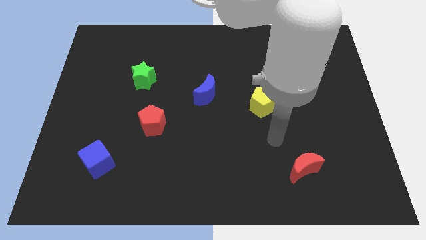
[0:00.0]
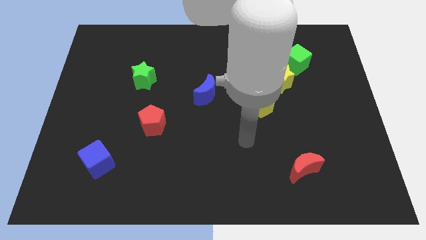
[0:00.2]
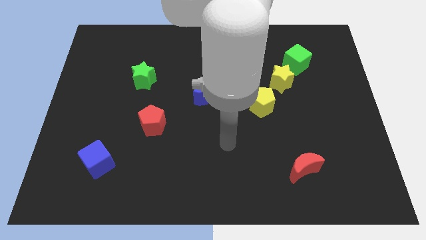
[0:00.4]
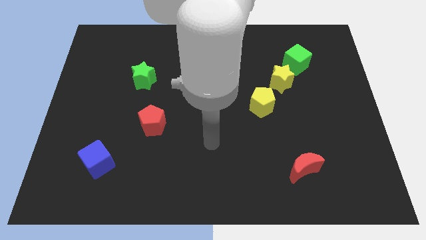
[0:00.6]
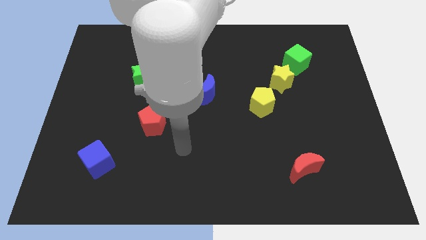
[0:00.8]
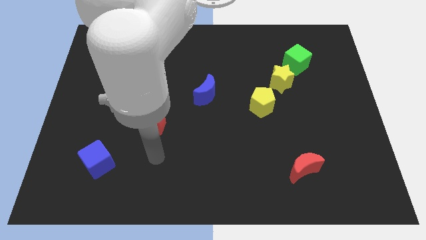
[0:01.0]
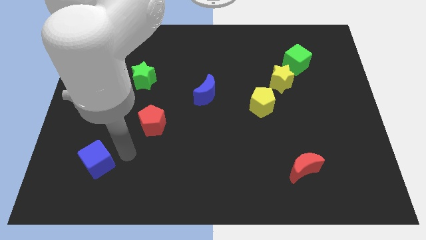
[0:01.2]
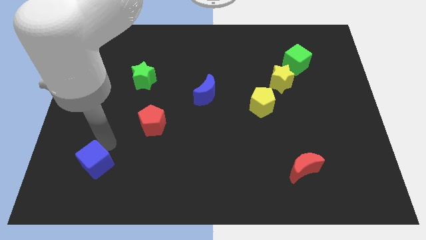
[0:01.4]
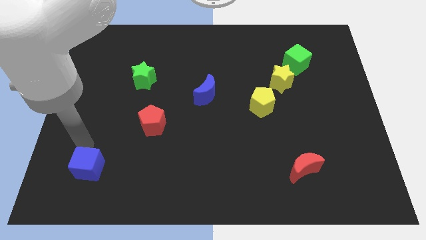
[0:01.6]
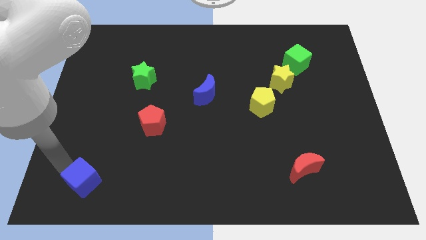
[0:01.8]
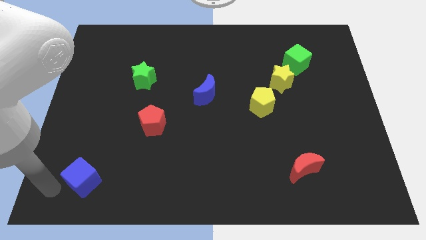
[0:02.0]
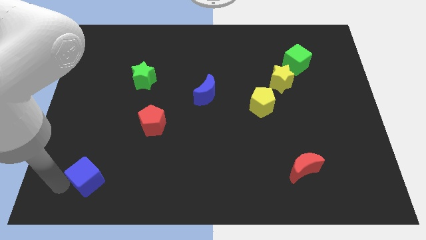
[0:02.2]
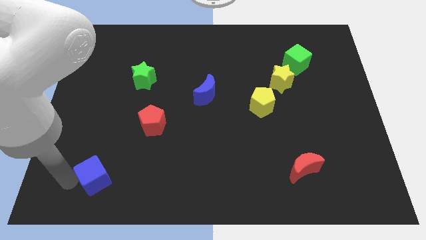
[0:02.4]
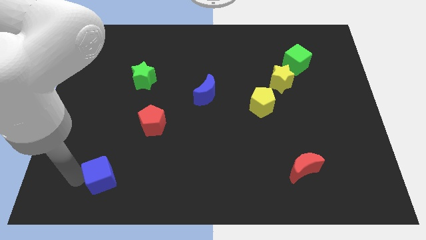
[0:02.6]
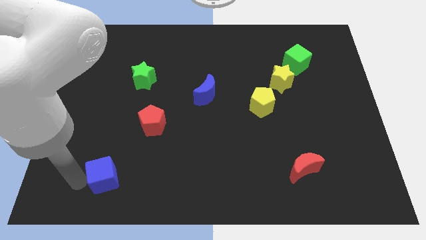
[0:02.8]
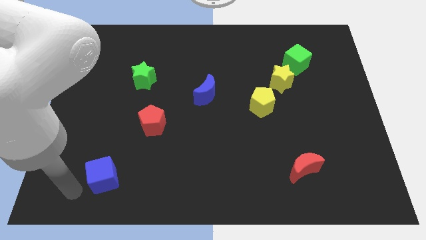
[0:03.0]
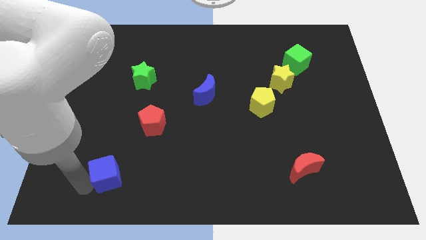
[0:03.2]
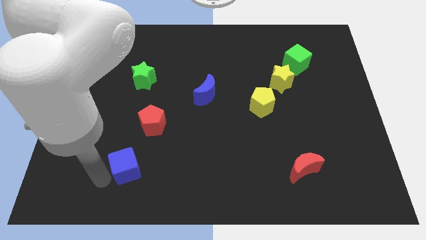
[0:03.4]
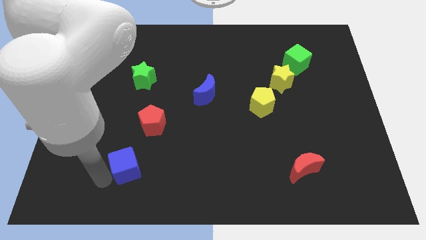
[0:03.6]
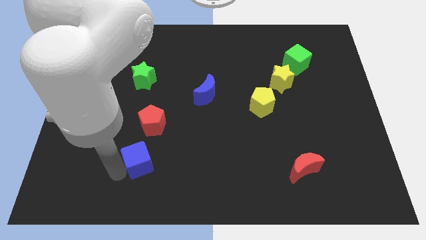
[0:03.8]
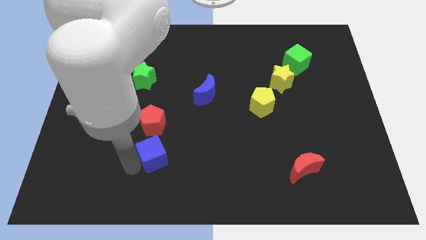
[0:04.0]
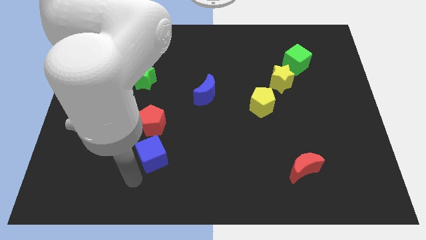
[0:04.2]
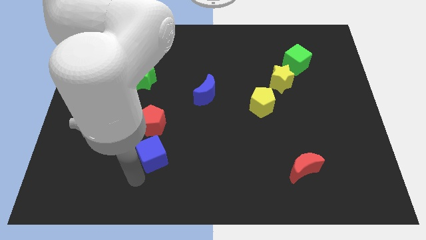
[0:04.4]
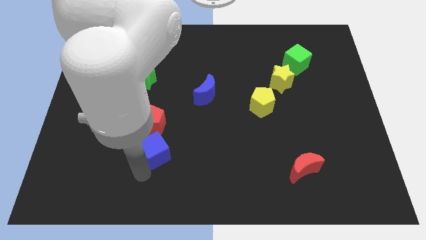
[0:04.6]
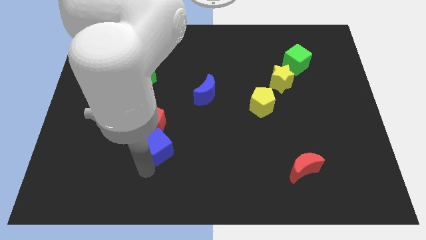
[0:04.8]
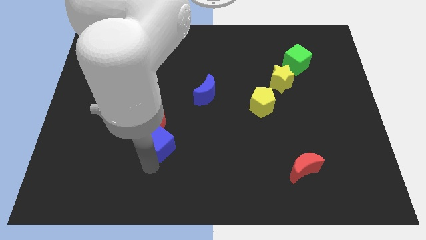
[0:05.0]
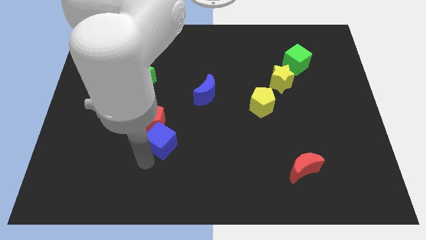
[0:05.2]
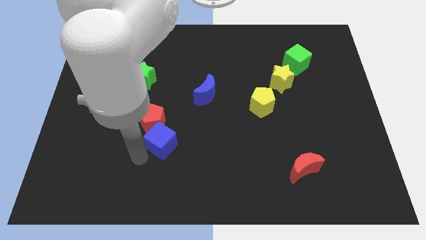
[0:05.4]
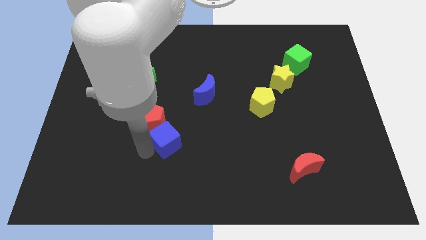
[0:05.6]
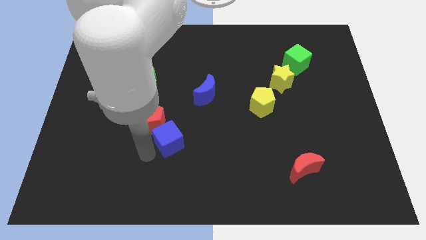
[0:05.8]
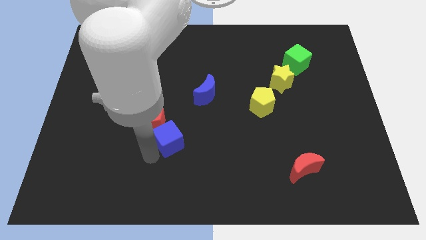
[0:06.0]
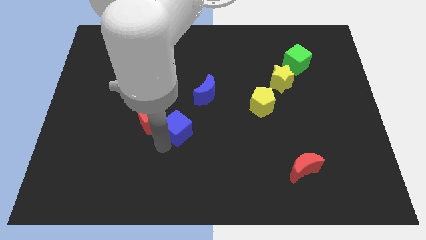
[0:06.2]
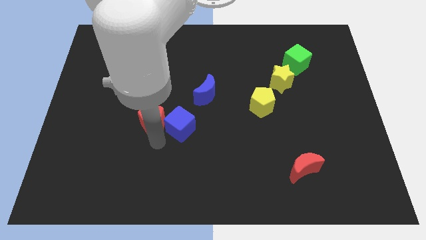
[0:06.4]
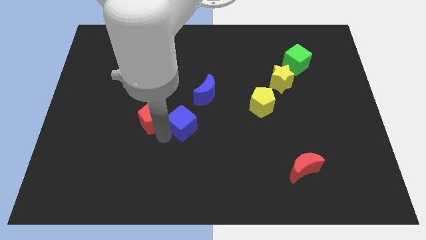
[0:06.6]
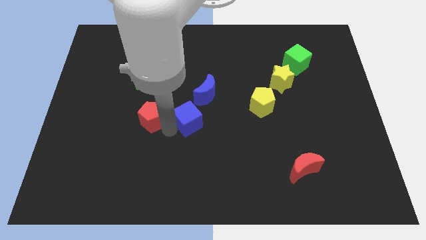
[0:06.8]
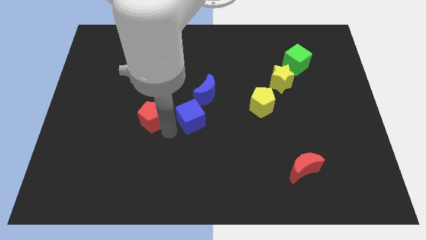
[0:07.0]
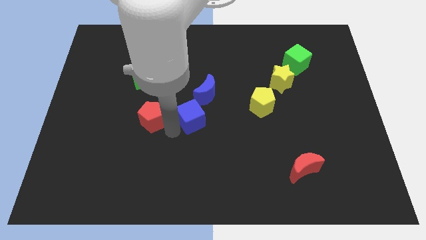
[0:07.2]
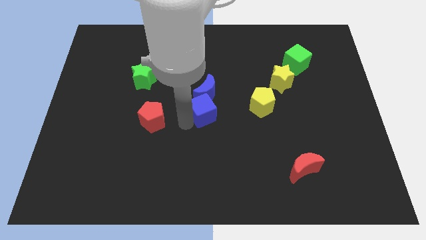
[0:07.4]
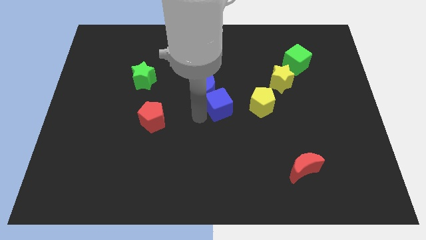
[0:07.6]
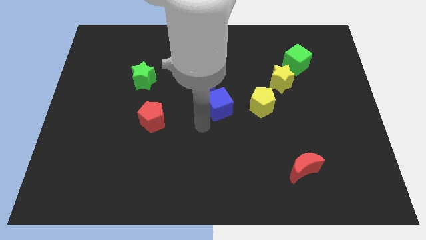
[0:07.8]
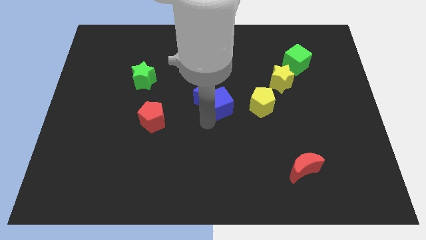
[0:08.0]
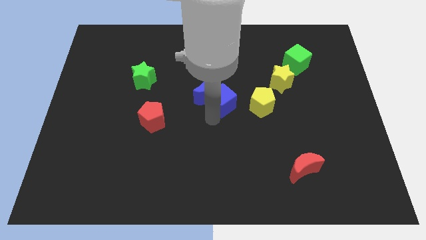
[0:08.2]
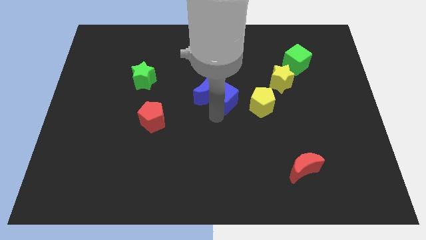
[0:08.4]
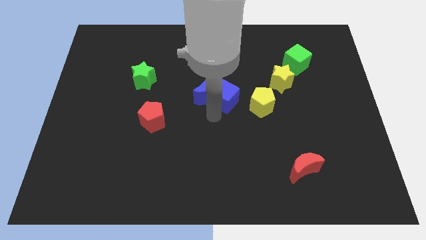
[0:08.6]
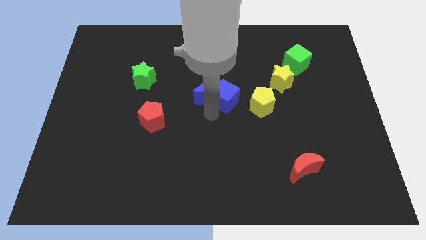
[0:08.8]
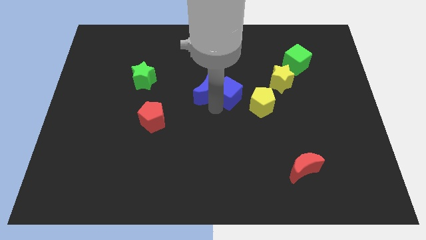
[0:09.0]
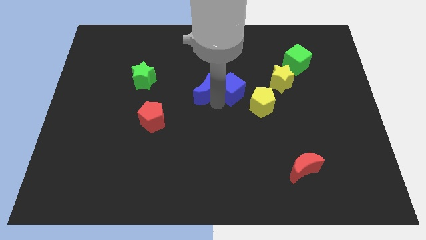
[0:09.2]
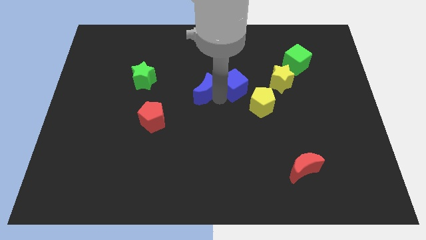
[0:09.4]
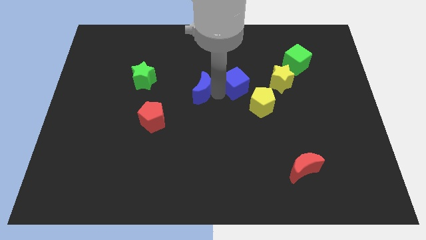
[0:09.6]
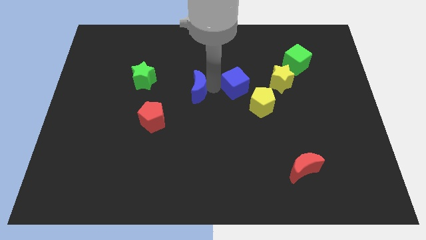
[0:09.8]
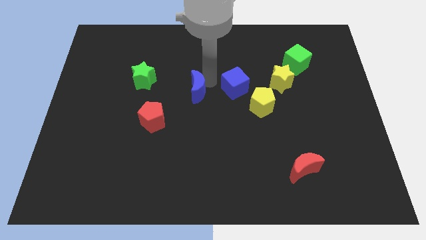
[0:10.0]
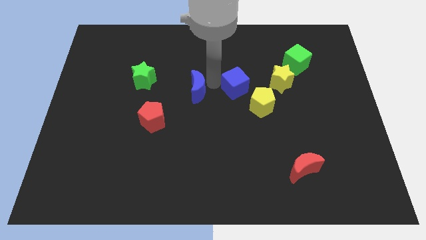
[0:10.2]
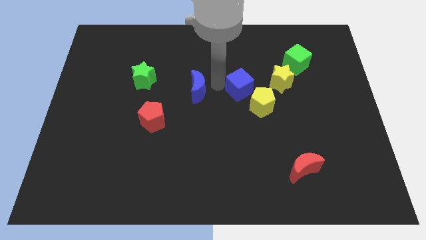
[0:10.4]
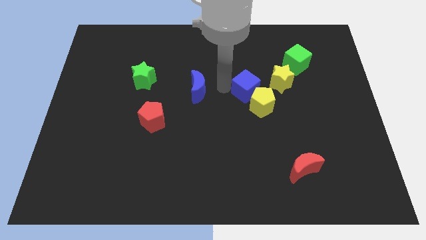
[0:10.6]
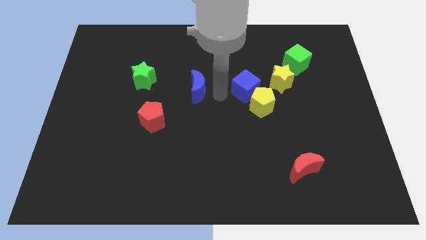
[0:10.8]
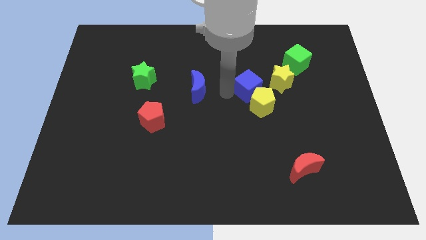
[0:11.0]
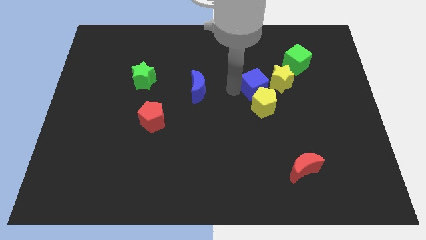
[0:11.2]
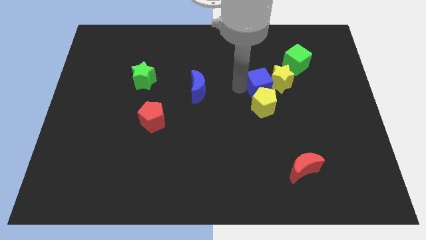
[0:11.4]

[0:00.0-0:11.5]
put the blue cube close to the yellow star

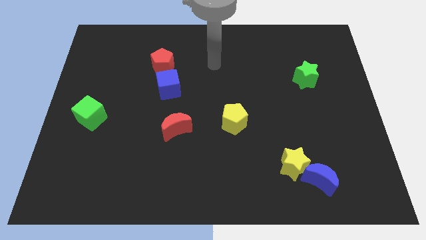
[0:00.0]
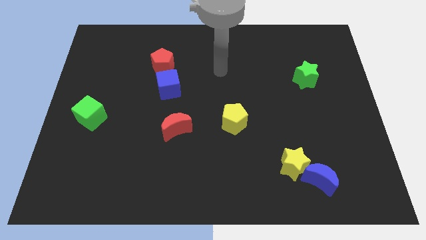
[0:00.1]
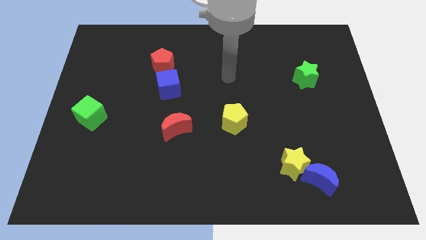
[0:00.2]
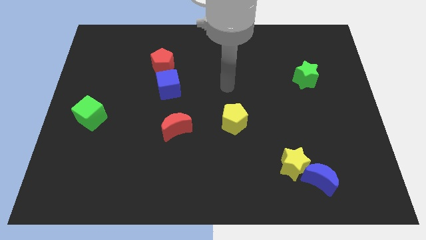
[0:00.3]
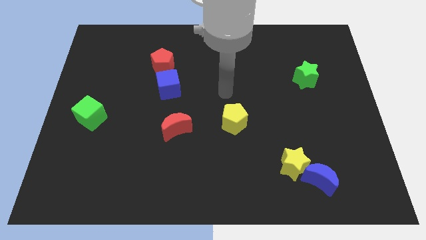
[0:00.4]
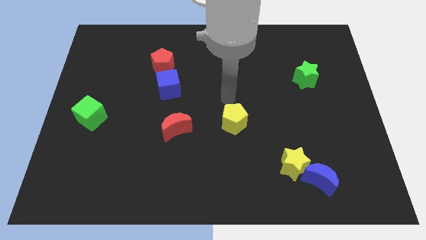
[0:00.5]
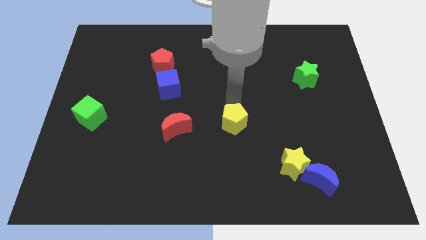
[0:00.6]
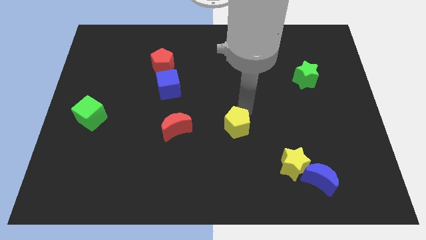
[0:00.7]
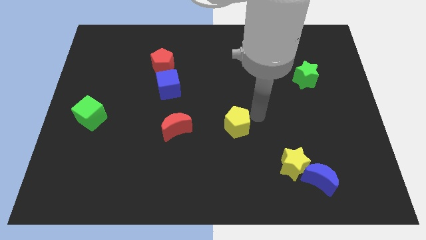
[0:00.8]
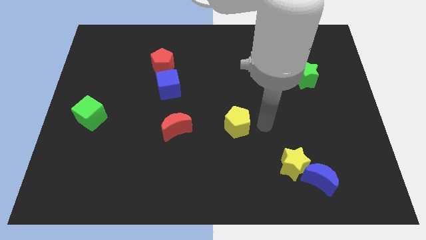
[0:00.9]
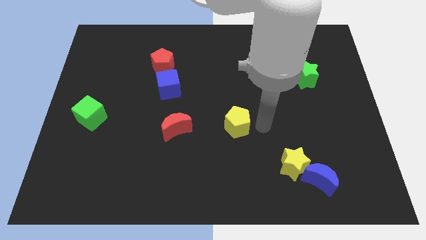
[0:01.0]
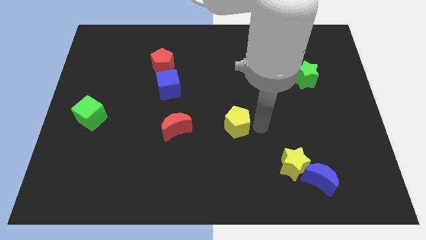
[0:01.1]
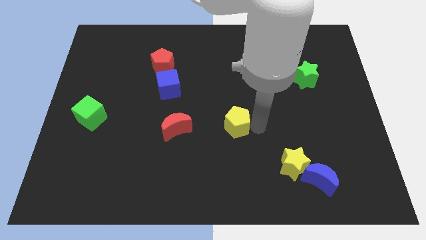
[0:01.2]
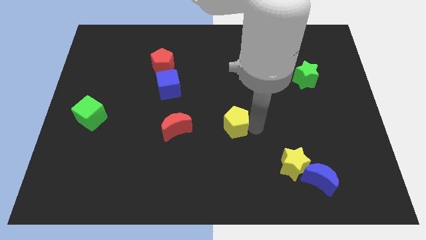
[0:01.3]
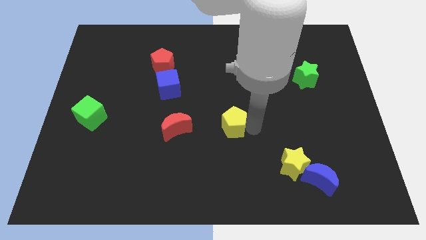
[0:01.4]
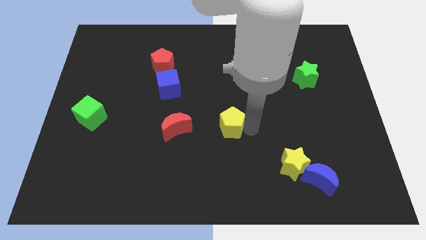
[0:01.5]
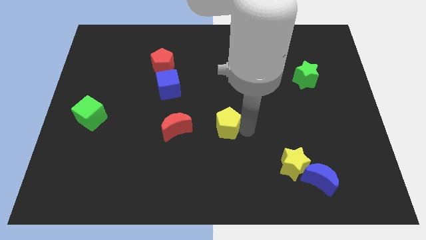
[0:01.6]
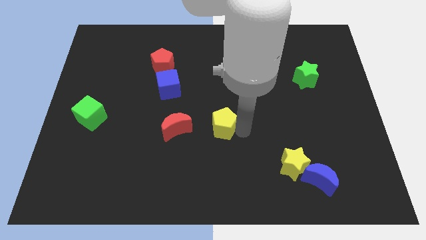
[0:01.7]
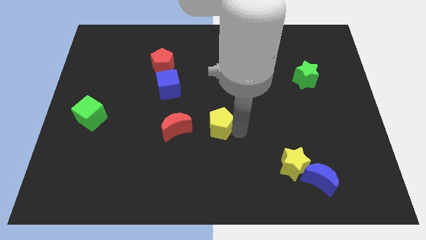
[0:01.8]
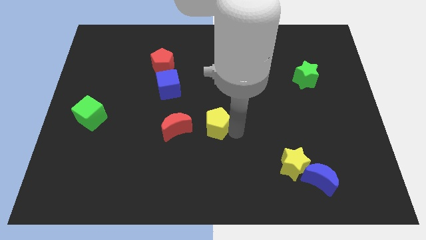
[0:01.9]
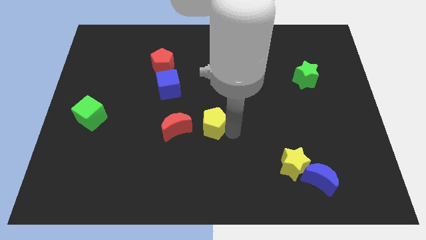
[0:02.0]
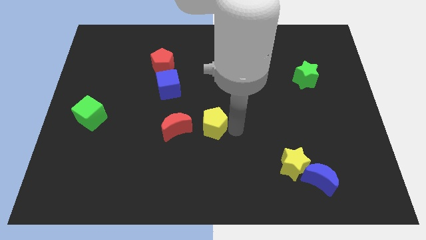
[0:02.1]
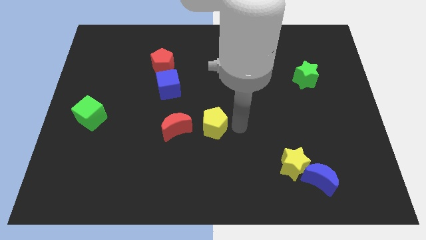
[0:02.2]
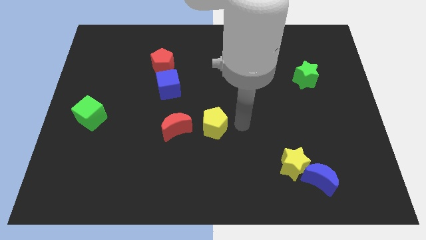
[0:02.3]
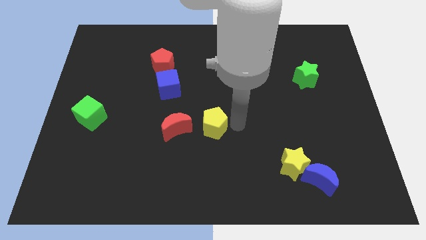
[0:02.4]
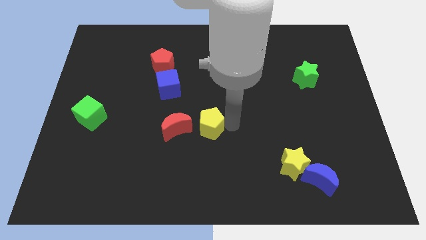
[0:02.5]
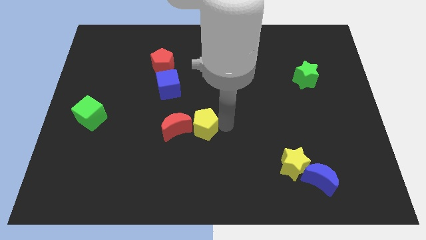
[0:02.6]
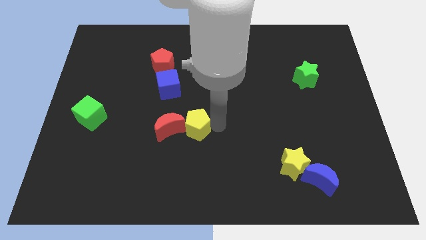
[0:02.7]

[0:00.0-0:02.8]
move the yellow pentagon next to the red moon
